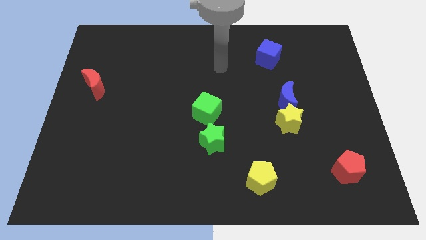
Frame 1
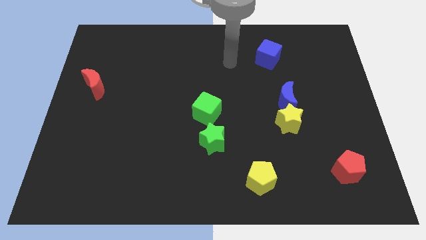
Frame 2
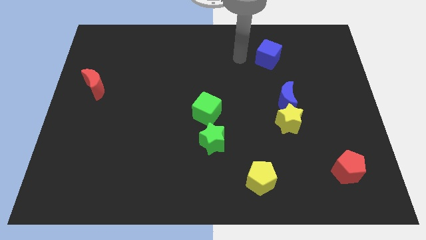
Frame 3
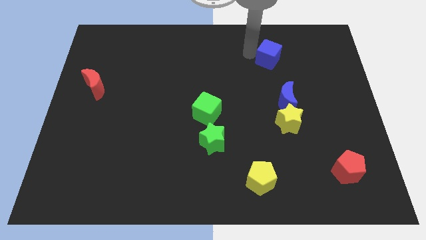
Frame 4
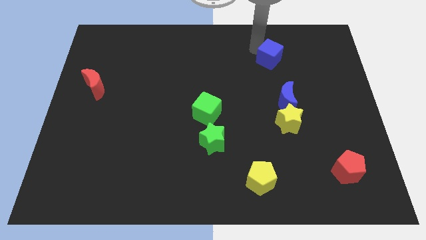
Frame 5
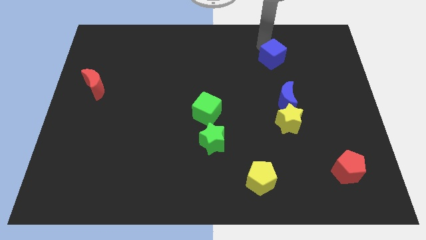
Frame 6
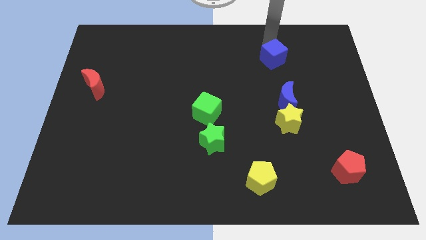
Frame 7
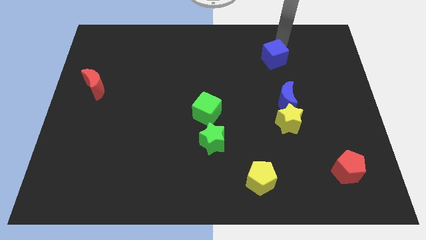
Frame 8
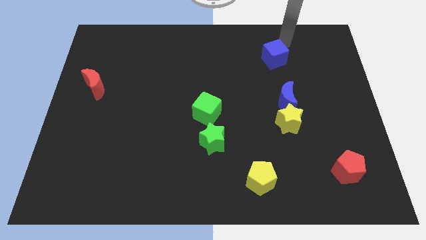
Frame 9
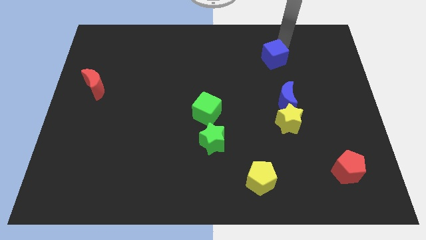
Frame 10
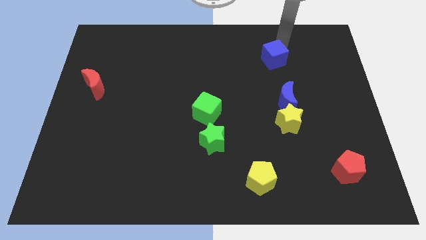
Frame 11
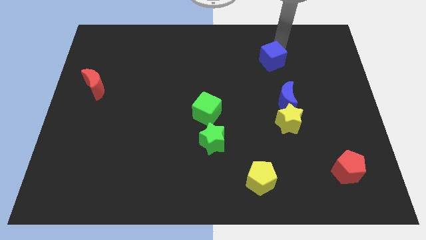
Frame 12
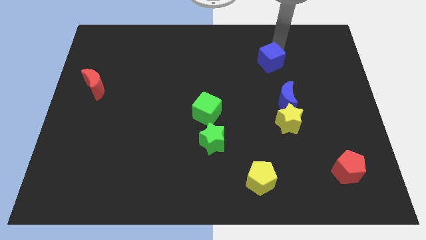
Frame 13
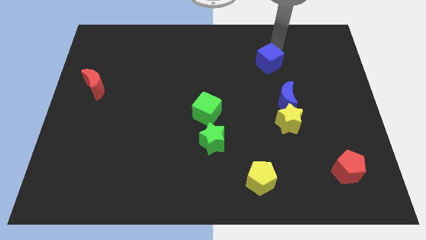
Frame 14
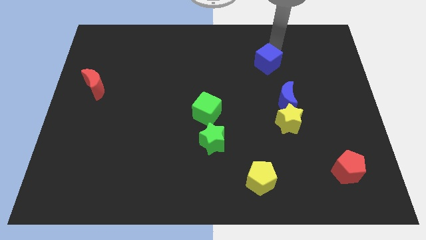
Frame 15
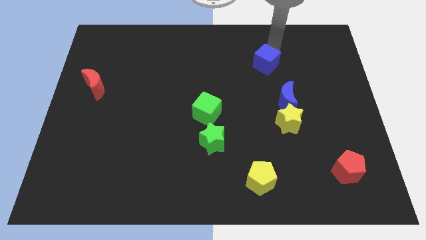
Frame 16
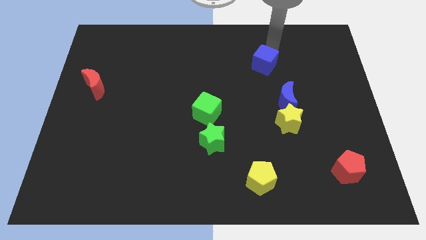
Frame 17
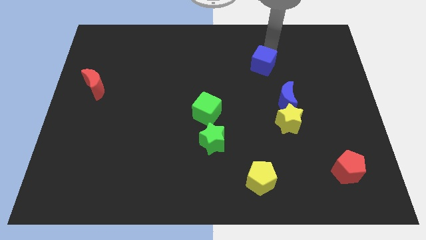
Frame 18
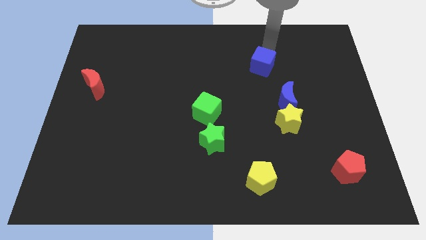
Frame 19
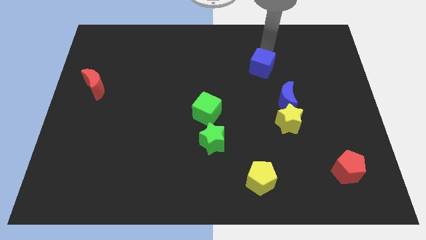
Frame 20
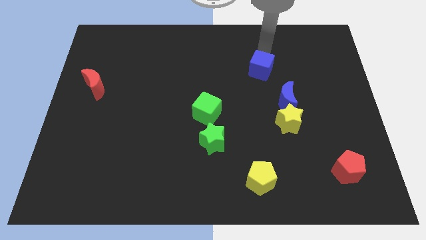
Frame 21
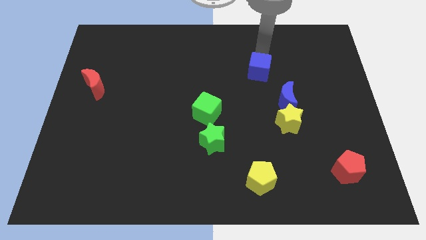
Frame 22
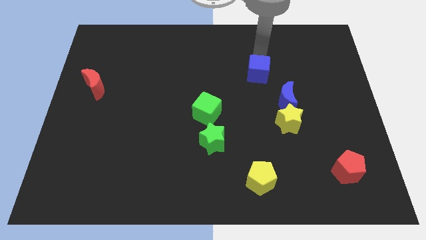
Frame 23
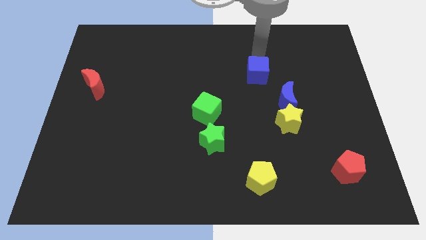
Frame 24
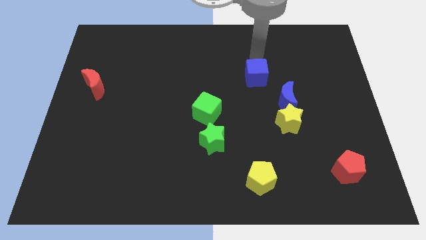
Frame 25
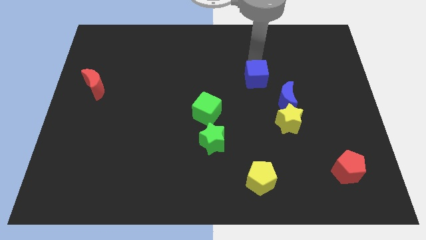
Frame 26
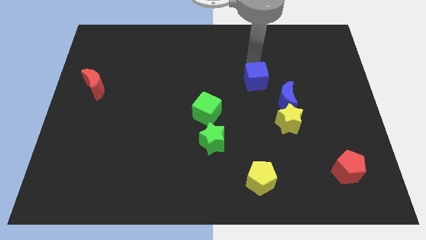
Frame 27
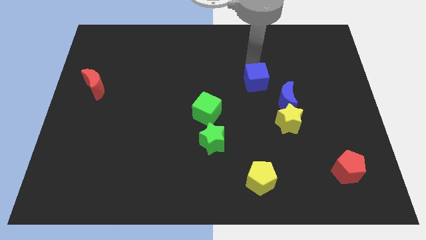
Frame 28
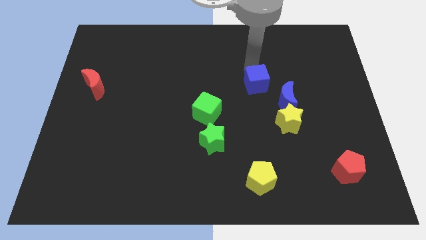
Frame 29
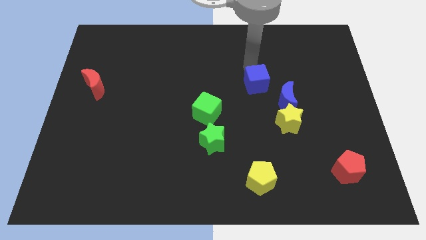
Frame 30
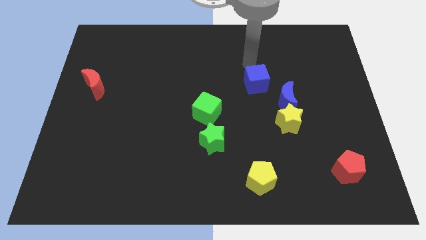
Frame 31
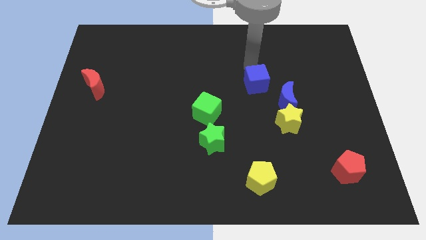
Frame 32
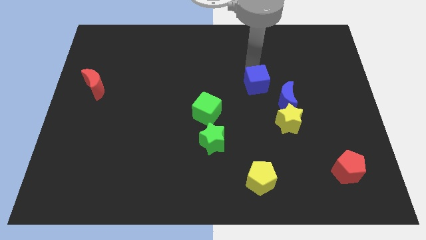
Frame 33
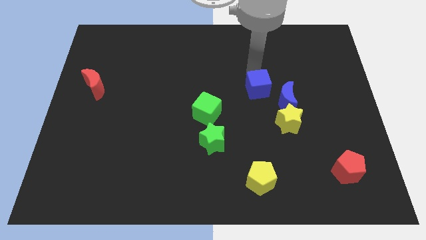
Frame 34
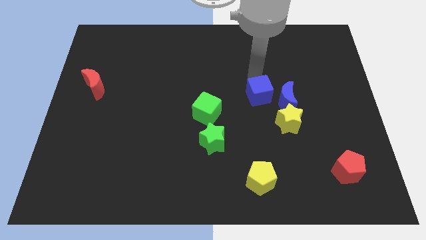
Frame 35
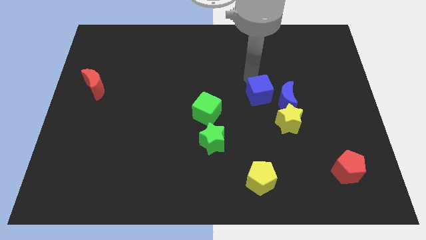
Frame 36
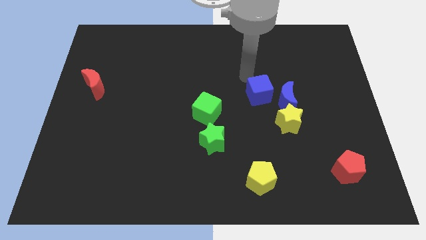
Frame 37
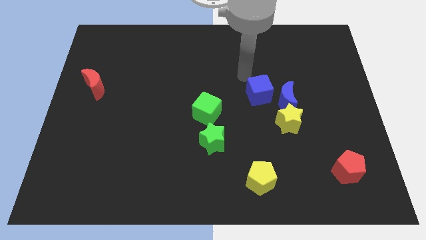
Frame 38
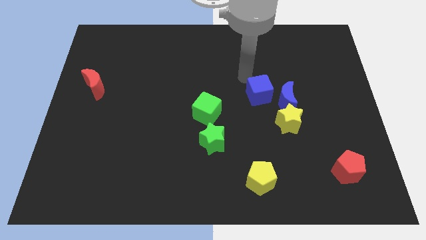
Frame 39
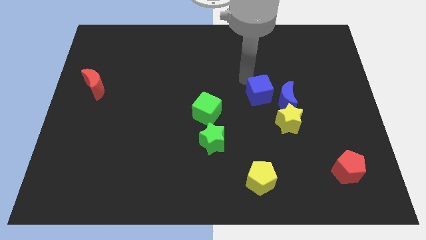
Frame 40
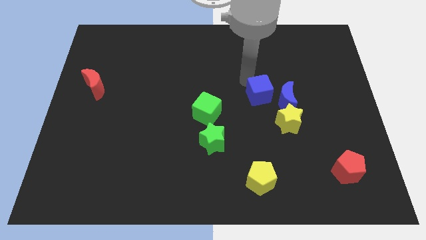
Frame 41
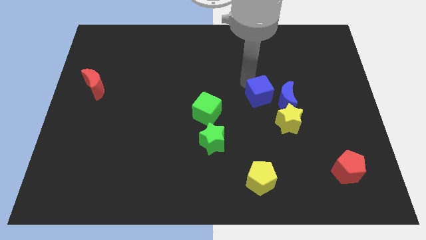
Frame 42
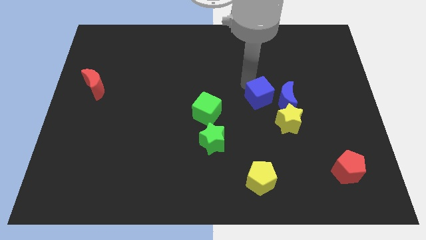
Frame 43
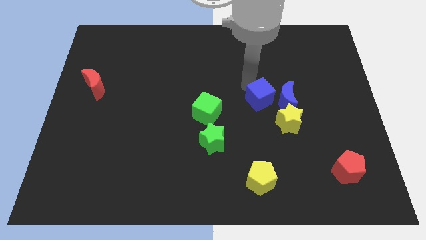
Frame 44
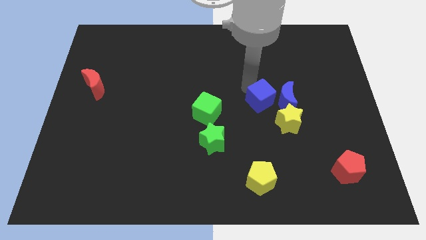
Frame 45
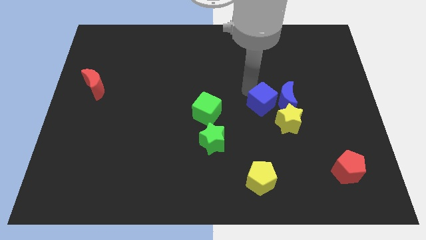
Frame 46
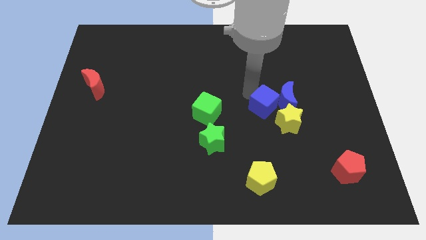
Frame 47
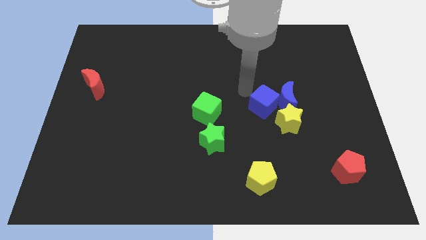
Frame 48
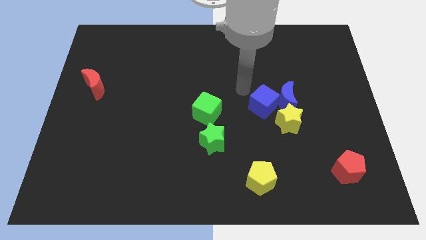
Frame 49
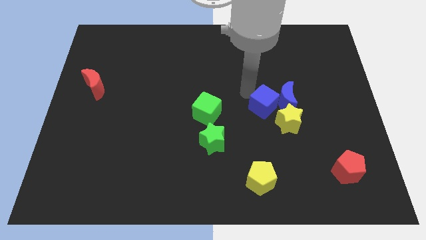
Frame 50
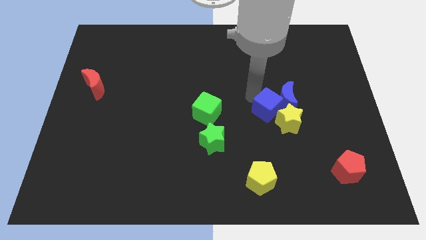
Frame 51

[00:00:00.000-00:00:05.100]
move the blue cube close to the yellow star
